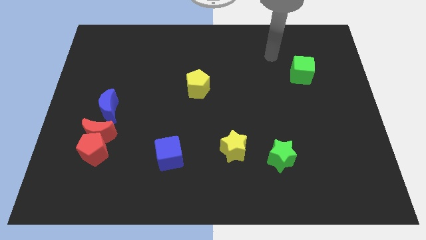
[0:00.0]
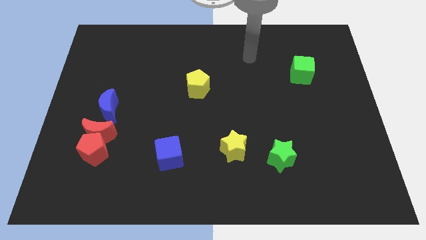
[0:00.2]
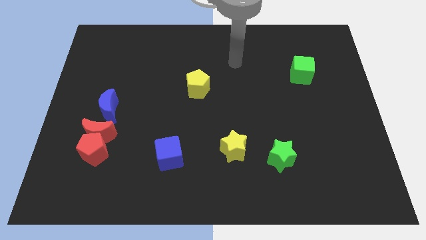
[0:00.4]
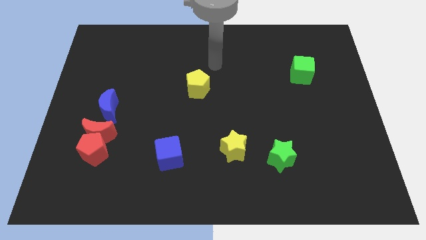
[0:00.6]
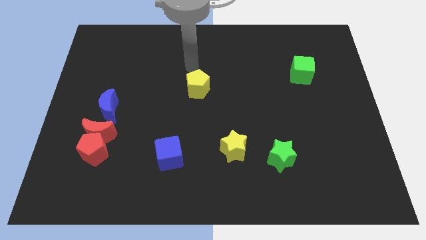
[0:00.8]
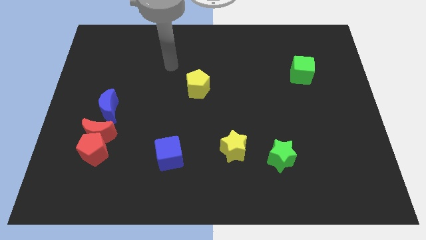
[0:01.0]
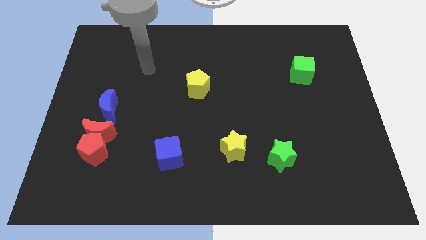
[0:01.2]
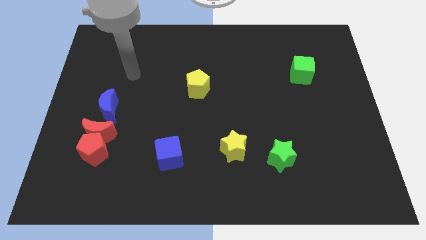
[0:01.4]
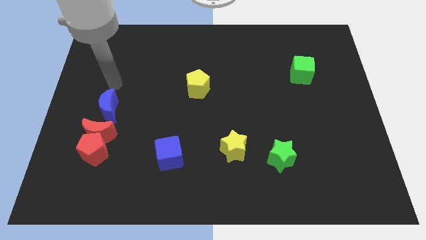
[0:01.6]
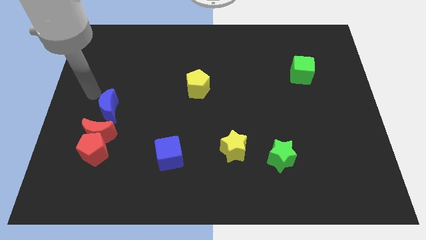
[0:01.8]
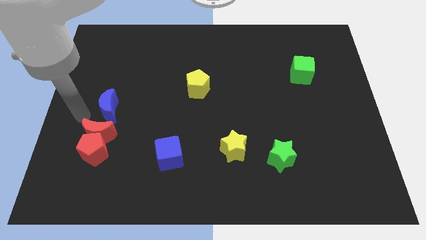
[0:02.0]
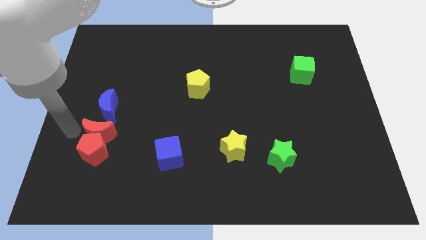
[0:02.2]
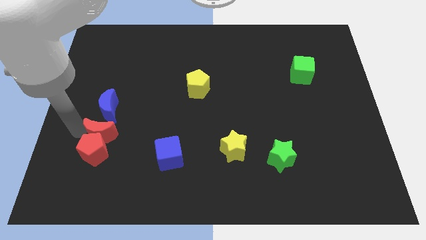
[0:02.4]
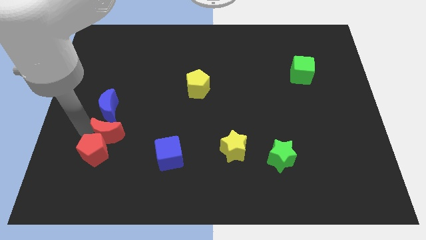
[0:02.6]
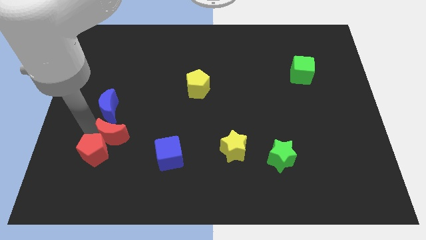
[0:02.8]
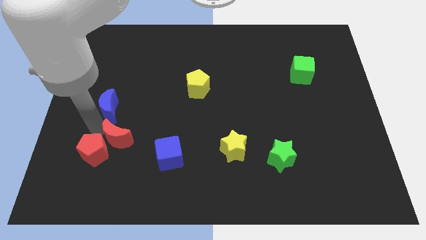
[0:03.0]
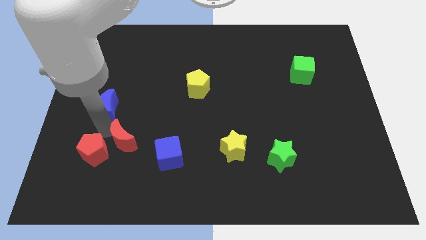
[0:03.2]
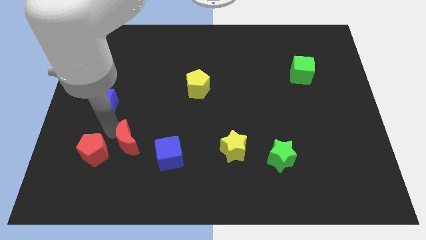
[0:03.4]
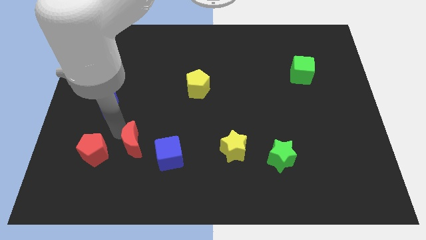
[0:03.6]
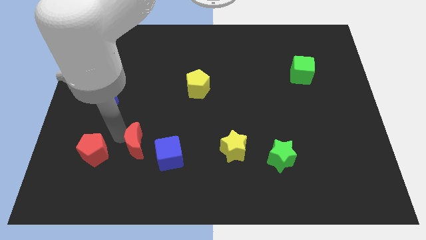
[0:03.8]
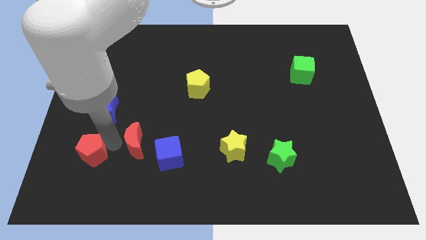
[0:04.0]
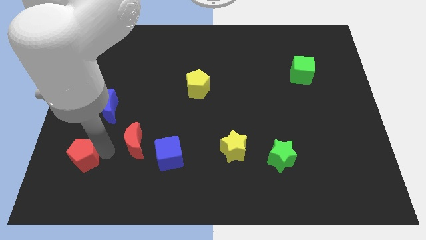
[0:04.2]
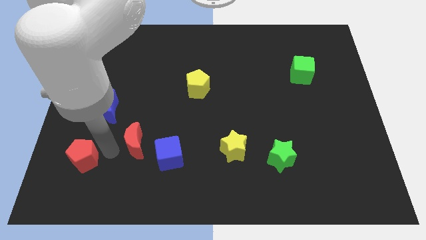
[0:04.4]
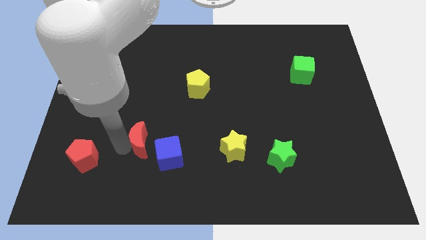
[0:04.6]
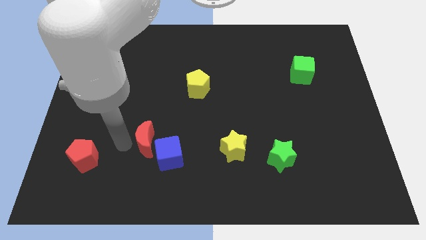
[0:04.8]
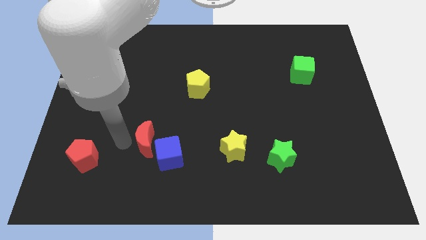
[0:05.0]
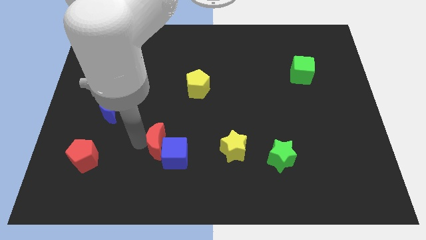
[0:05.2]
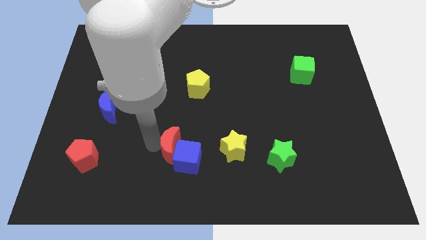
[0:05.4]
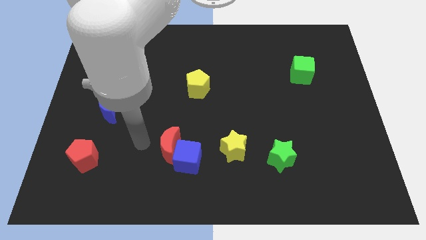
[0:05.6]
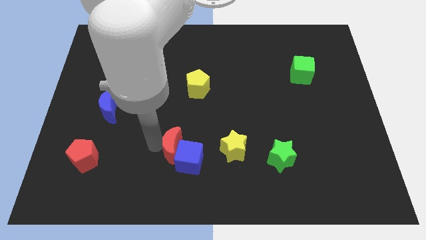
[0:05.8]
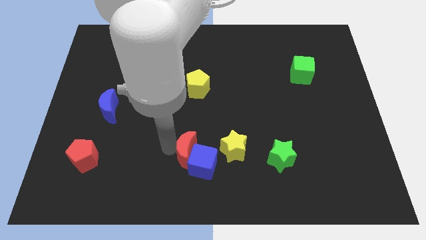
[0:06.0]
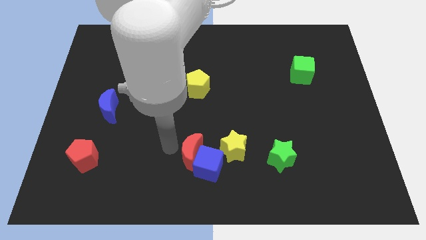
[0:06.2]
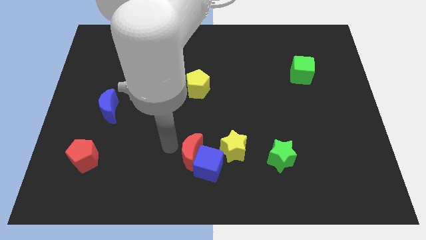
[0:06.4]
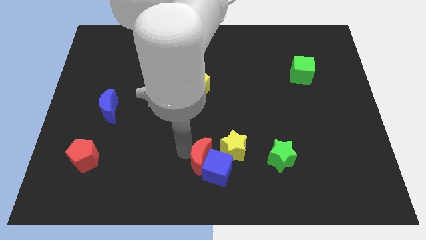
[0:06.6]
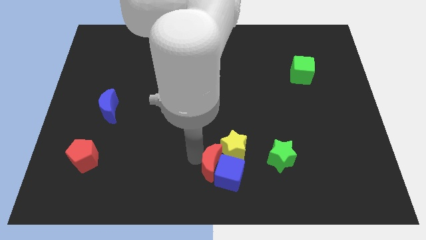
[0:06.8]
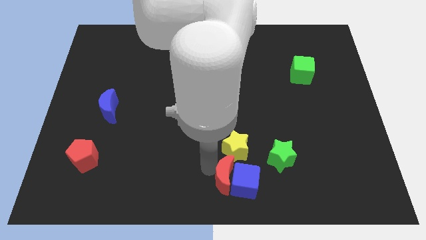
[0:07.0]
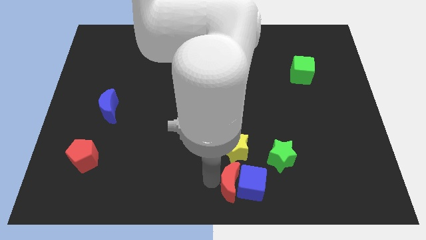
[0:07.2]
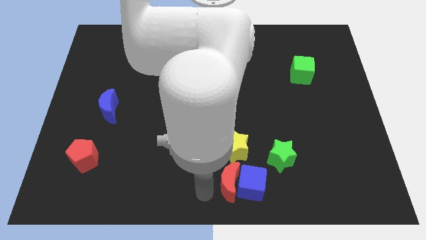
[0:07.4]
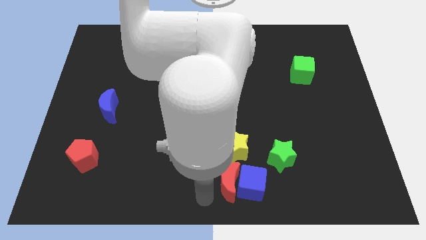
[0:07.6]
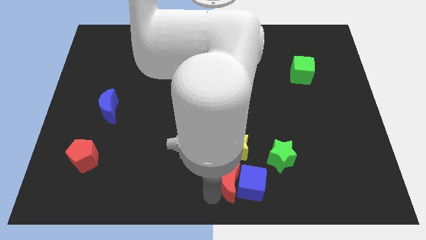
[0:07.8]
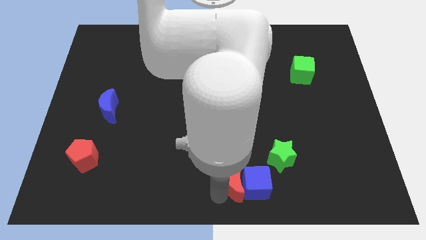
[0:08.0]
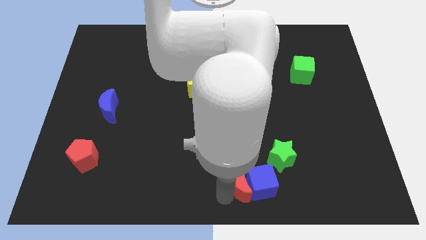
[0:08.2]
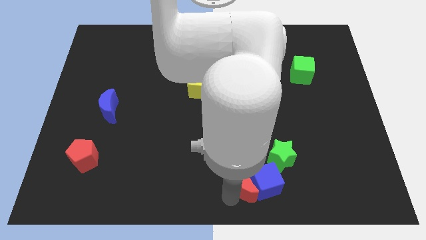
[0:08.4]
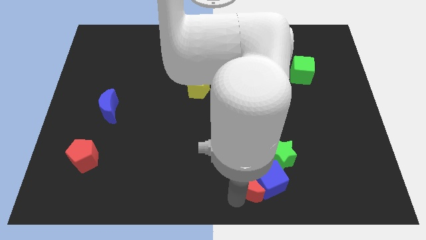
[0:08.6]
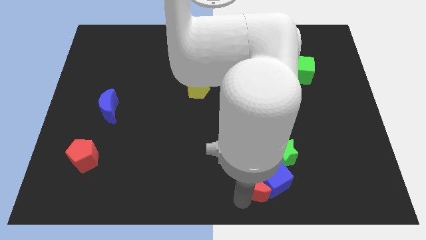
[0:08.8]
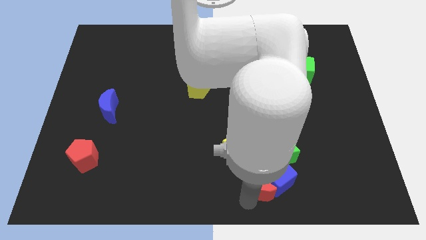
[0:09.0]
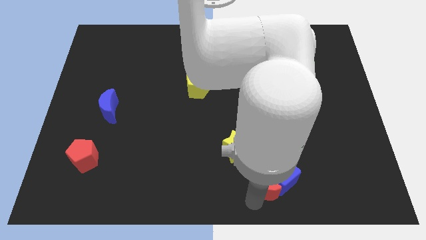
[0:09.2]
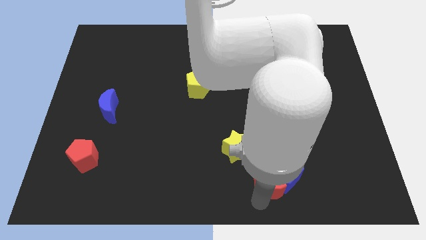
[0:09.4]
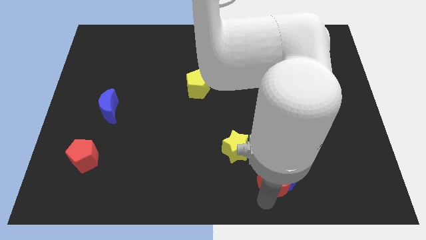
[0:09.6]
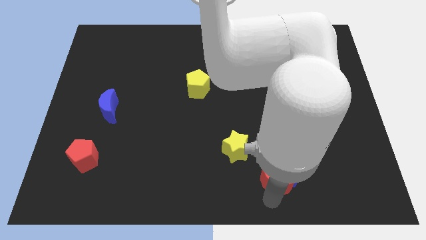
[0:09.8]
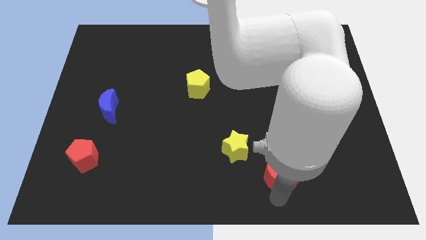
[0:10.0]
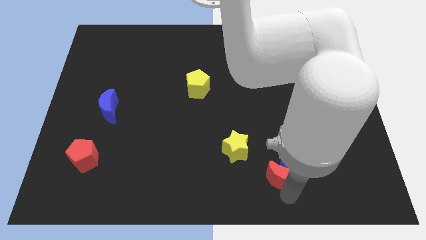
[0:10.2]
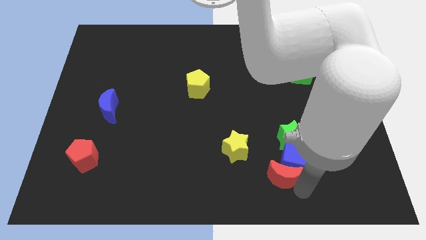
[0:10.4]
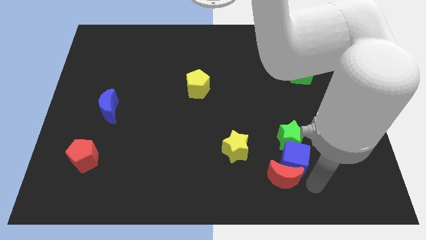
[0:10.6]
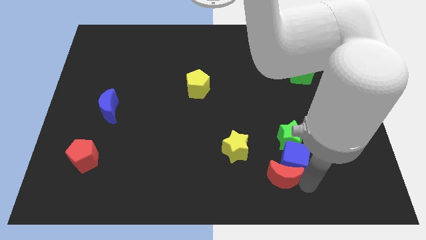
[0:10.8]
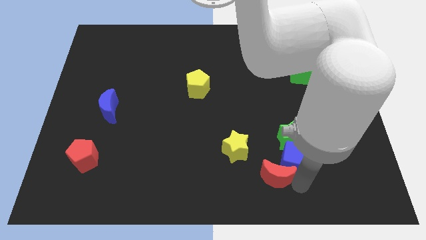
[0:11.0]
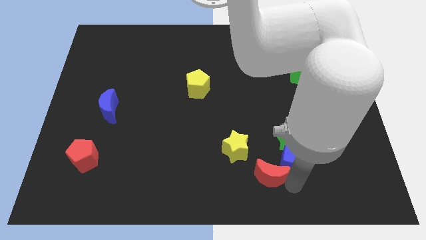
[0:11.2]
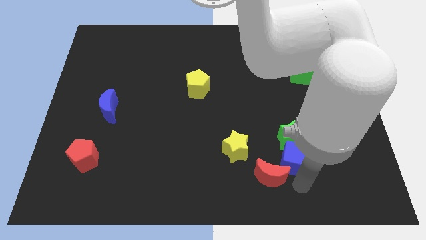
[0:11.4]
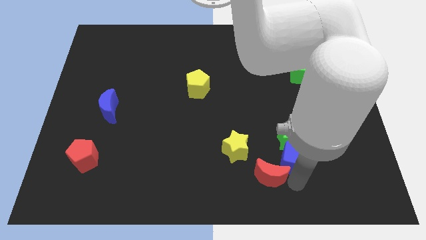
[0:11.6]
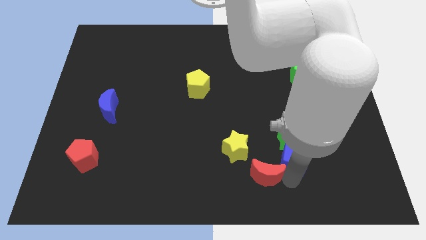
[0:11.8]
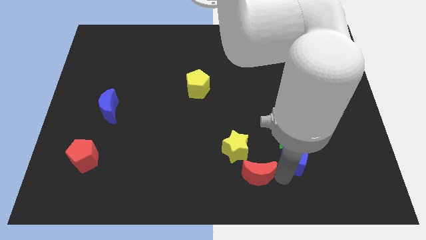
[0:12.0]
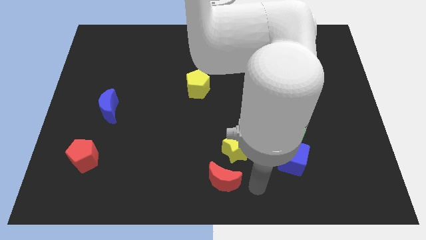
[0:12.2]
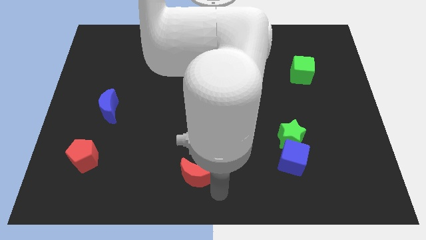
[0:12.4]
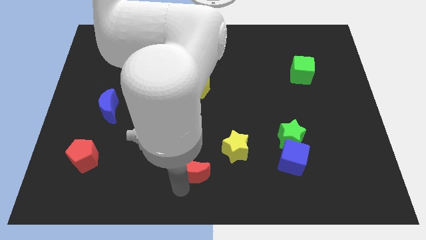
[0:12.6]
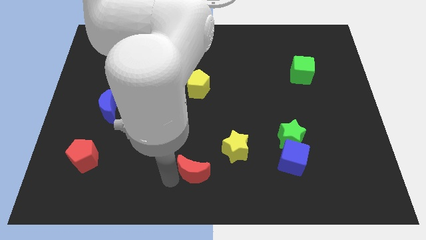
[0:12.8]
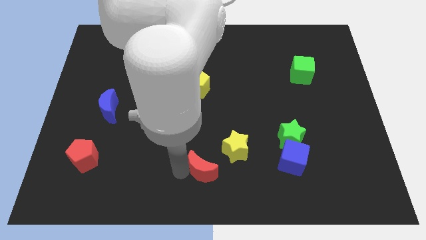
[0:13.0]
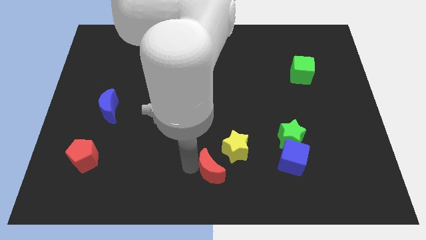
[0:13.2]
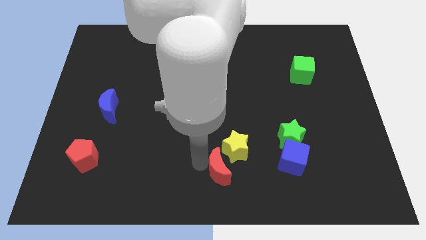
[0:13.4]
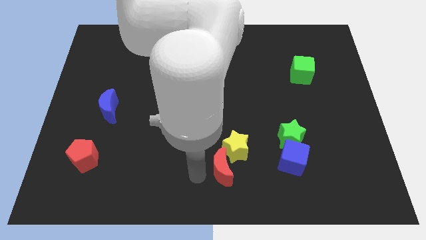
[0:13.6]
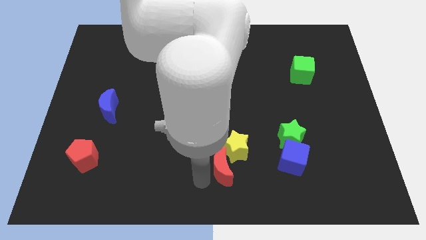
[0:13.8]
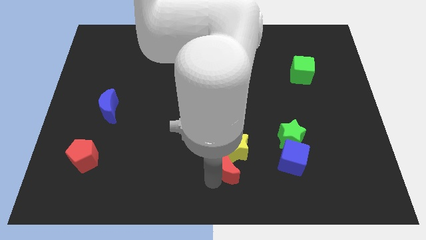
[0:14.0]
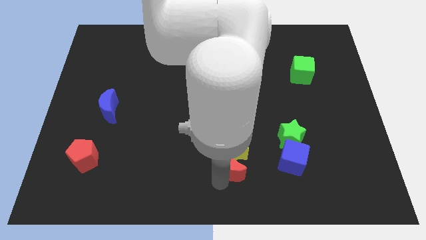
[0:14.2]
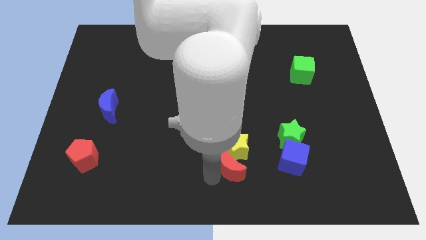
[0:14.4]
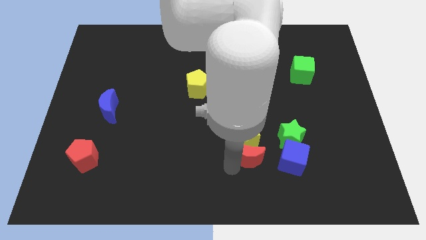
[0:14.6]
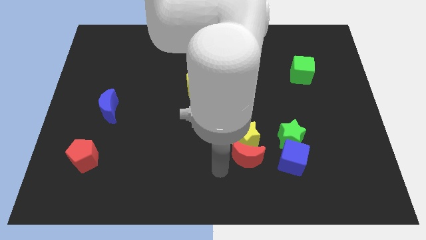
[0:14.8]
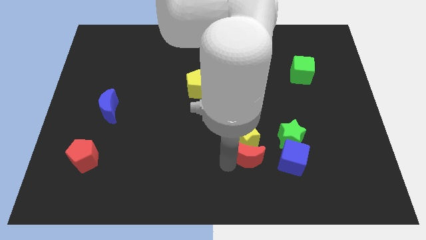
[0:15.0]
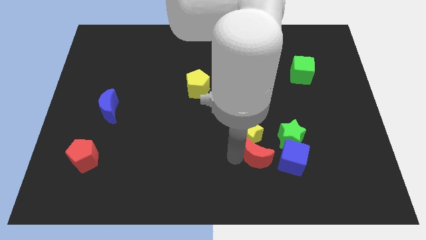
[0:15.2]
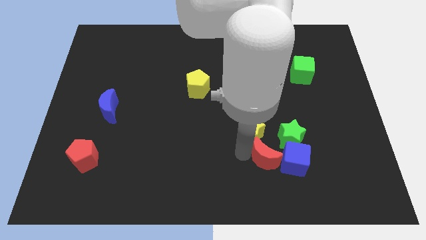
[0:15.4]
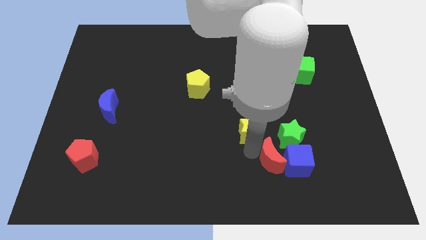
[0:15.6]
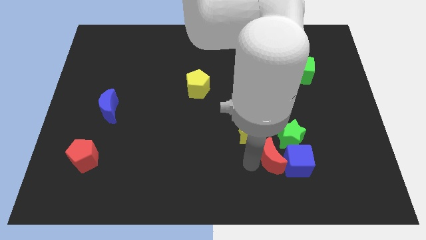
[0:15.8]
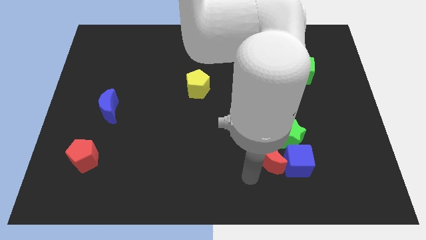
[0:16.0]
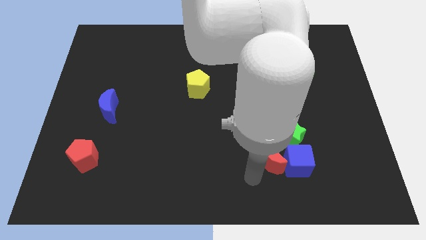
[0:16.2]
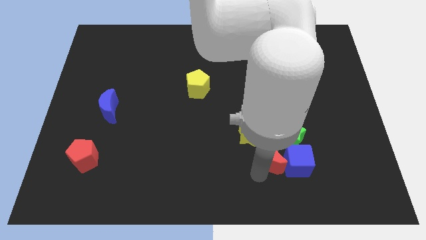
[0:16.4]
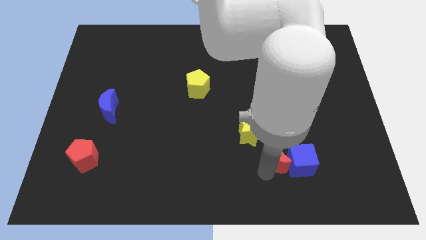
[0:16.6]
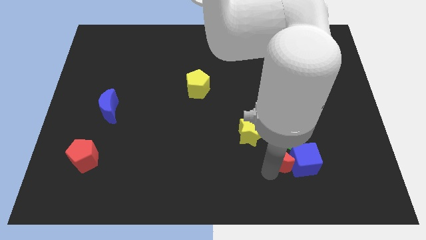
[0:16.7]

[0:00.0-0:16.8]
slide the red moon close to the green star
